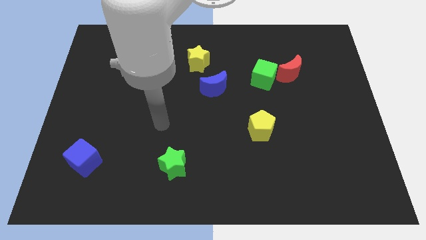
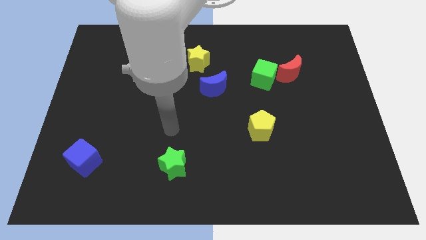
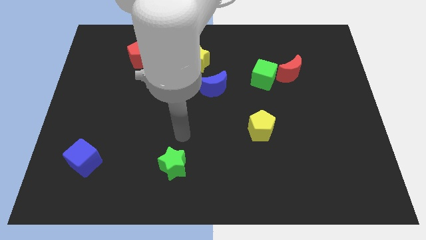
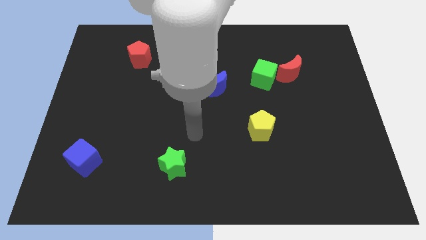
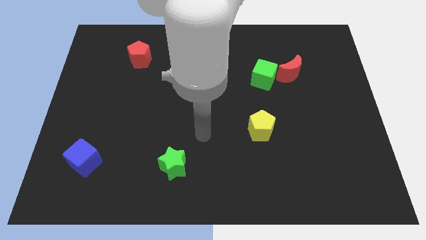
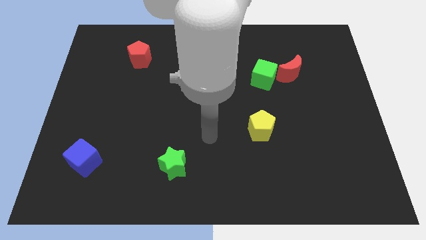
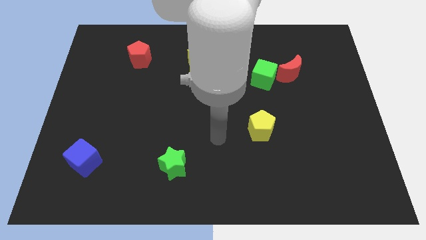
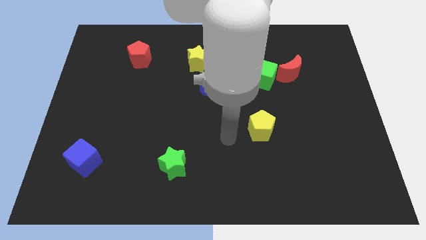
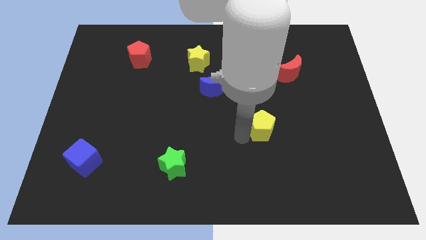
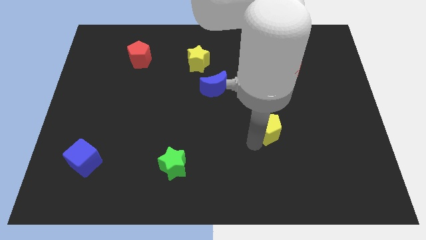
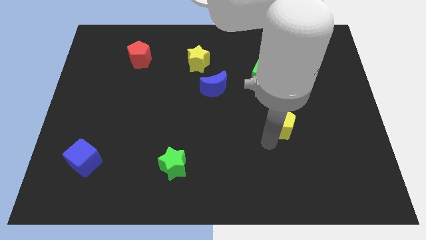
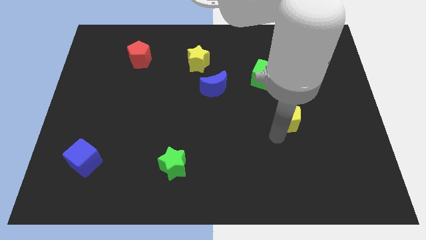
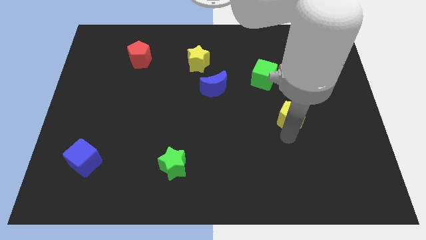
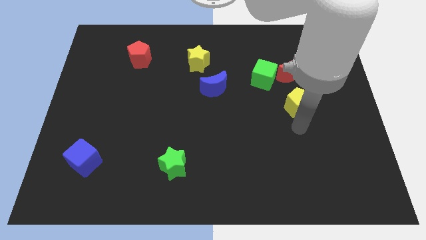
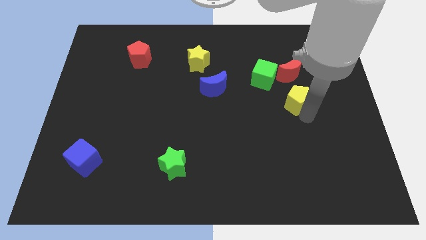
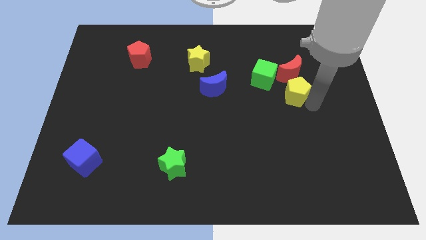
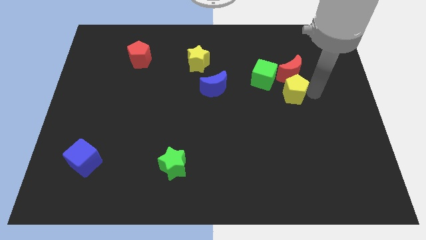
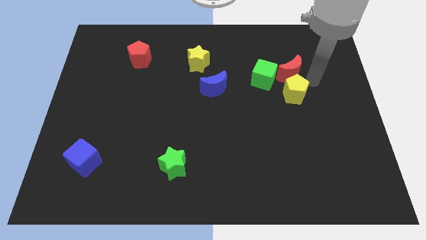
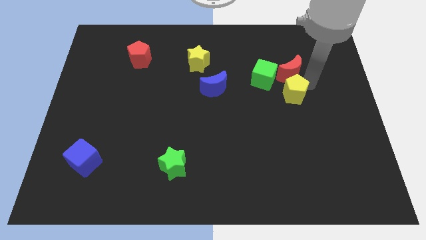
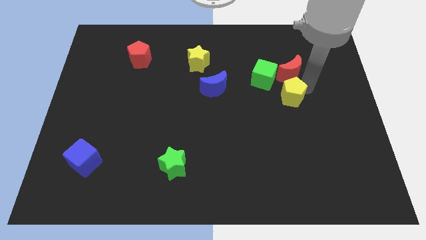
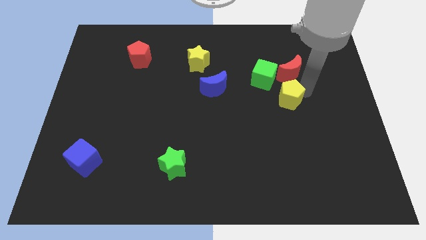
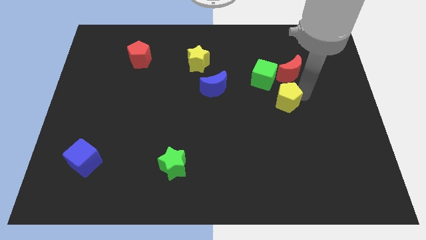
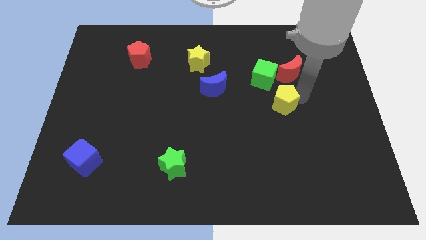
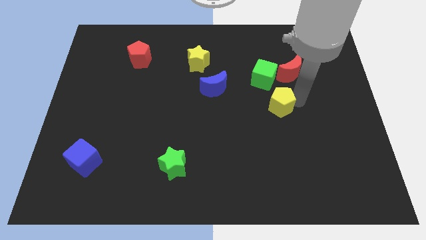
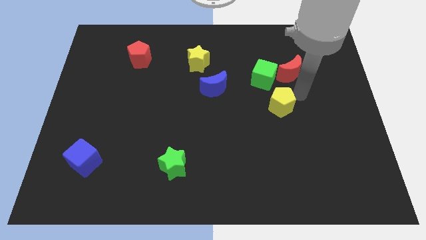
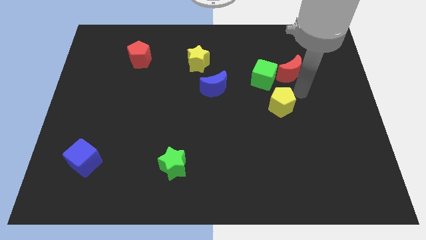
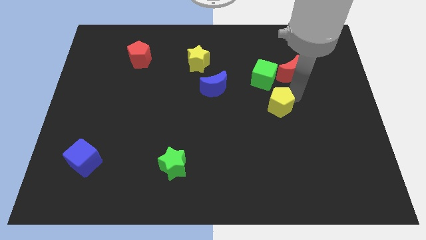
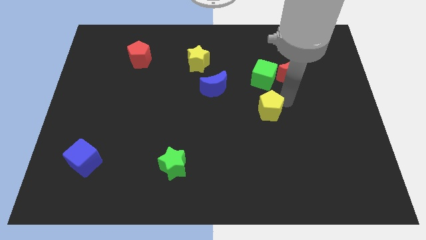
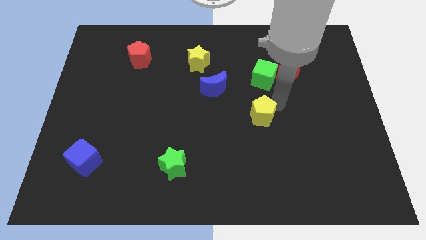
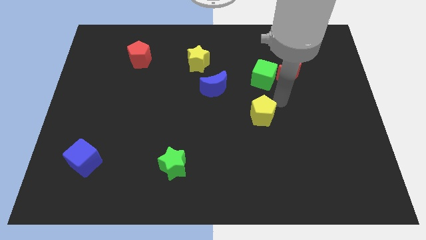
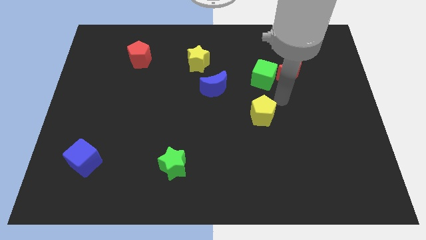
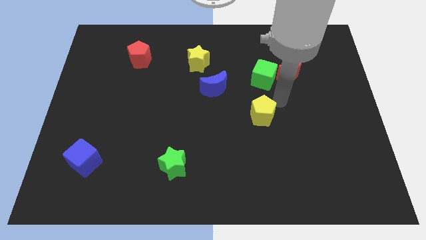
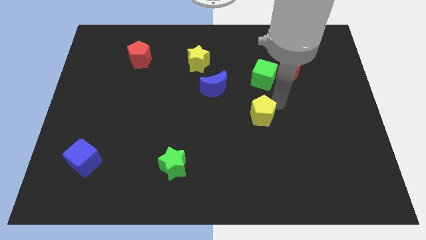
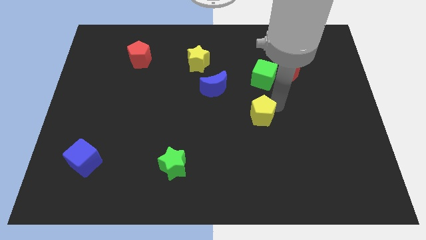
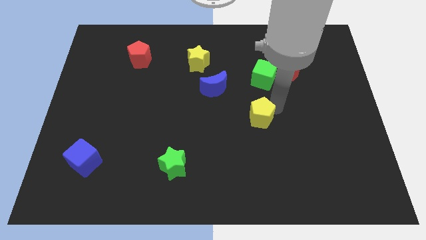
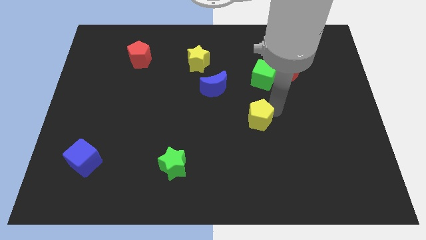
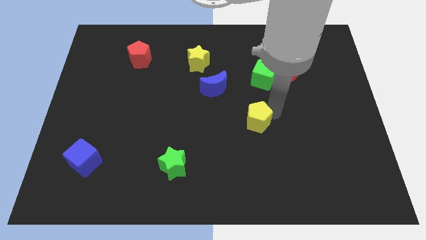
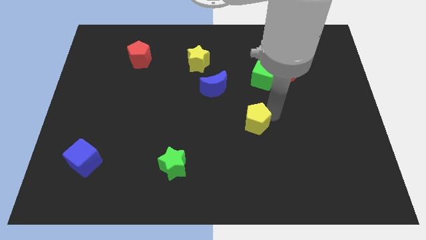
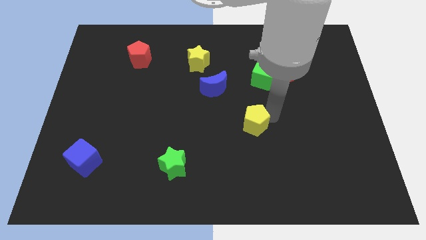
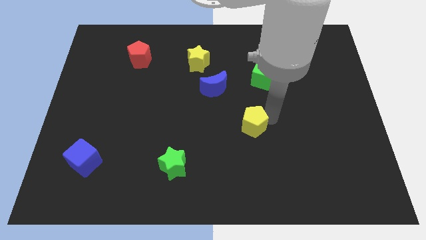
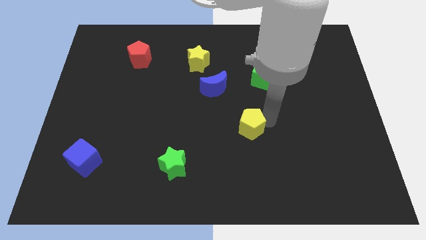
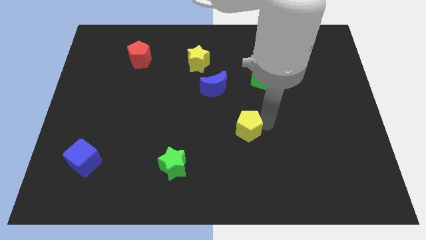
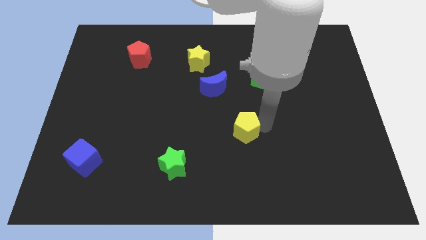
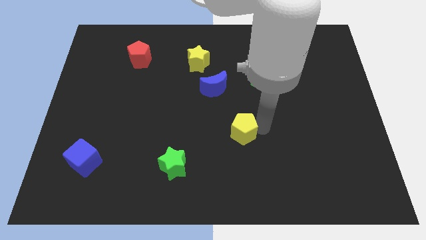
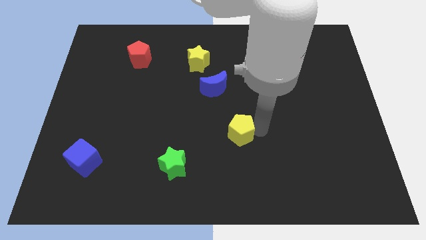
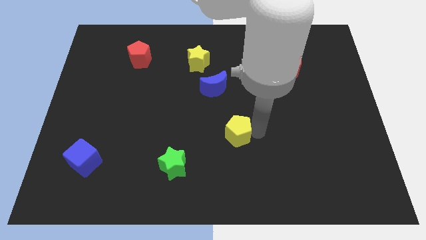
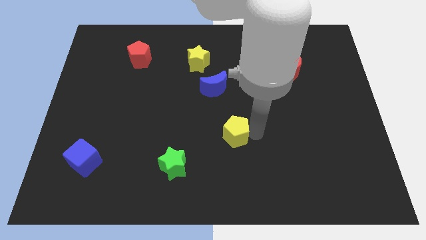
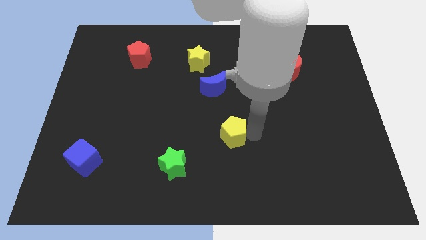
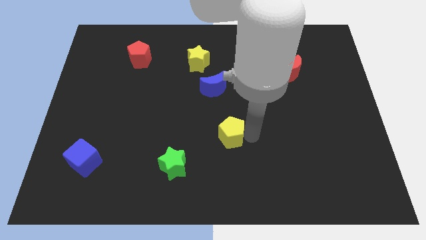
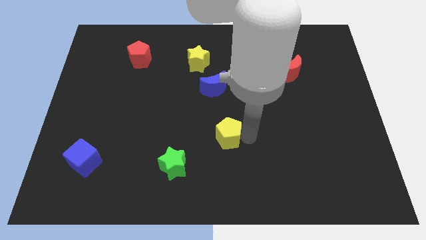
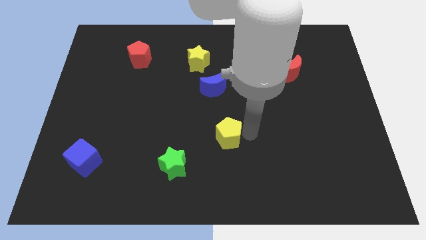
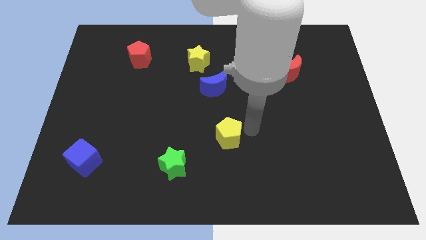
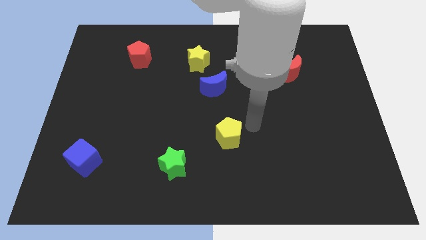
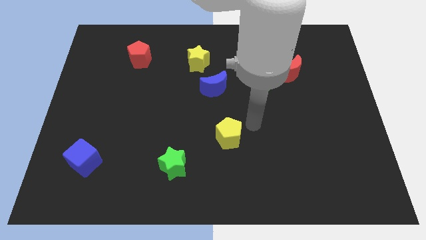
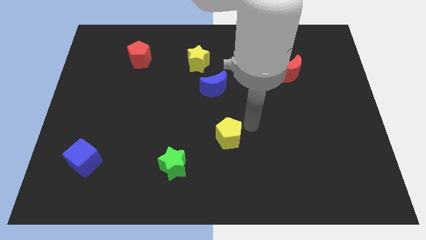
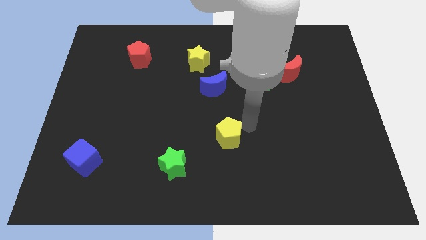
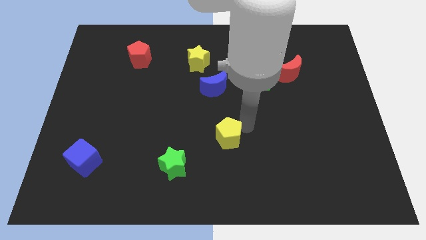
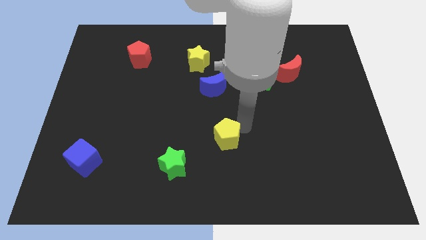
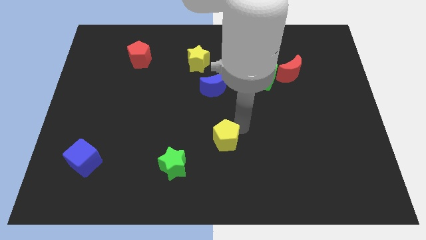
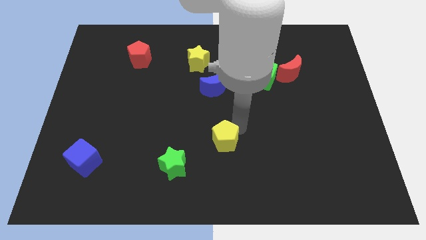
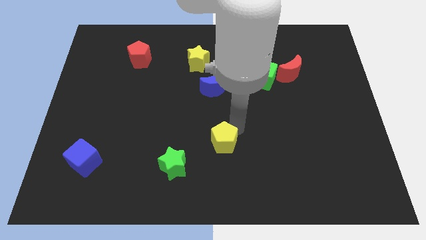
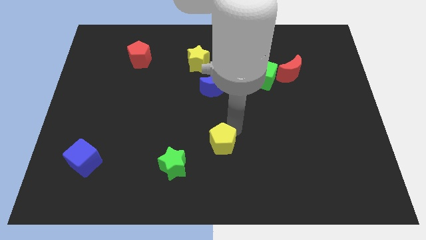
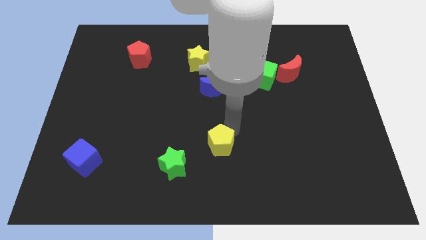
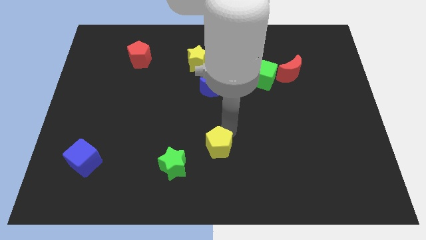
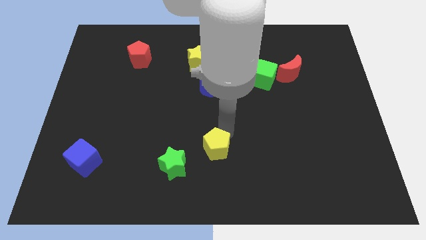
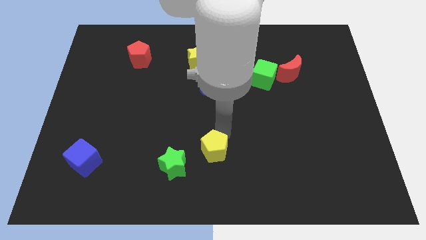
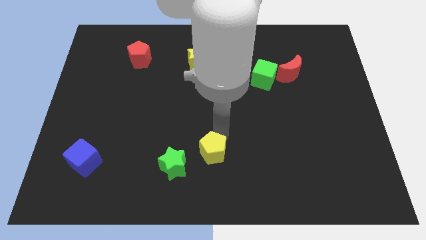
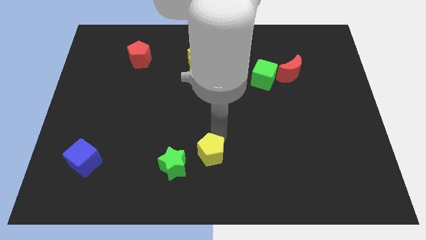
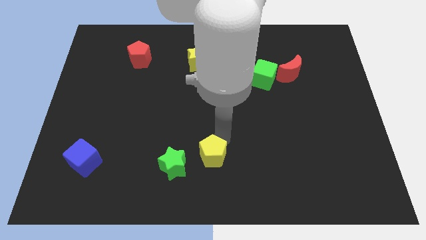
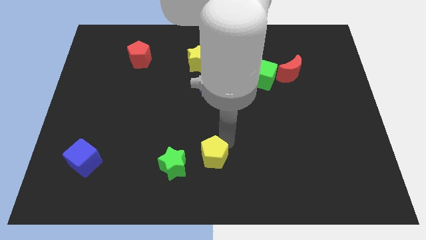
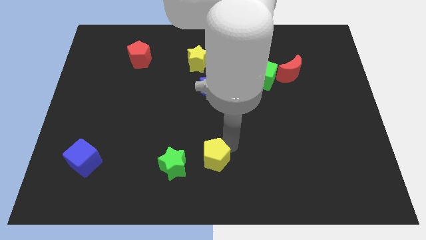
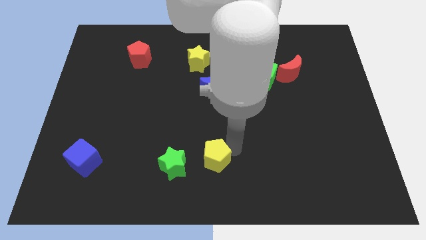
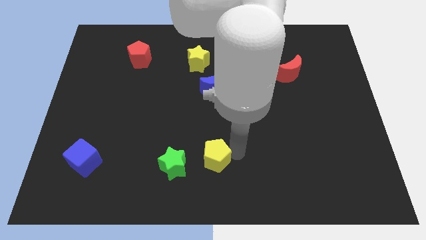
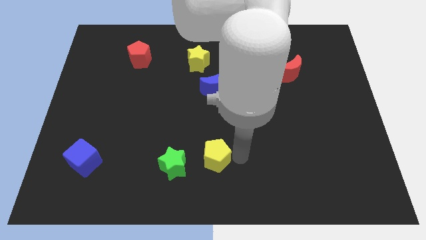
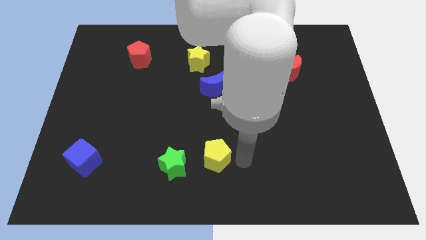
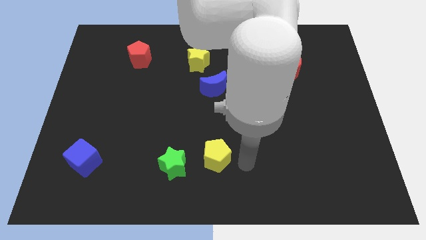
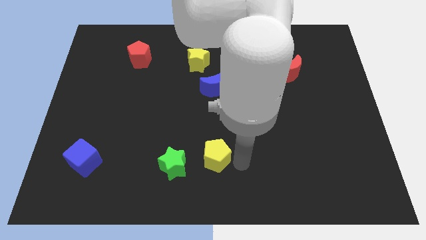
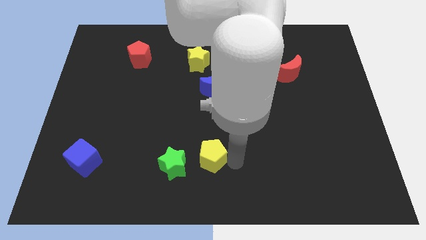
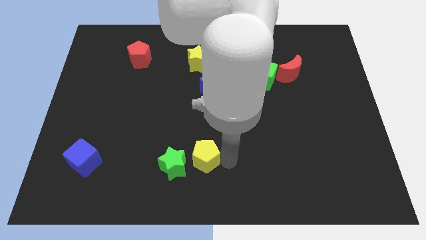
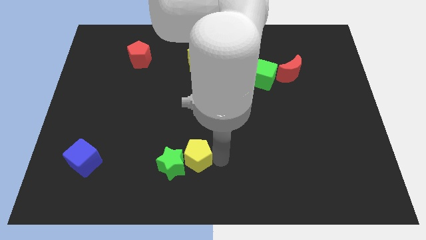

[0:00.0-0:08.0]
put the yellow pentagon next to the green star

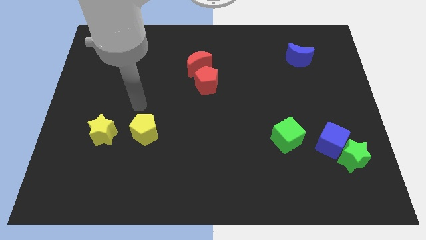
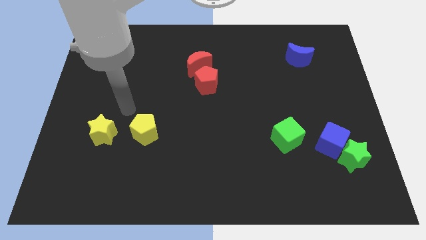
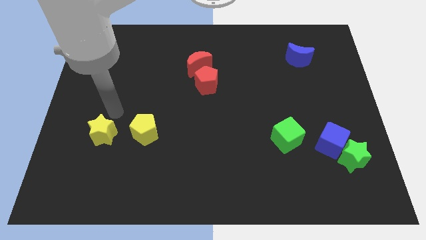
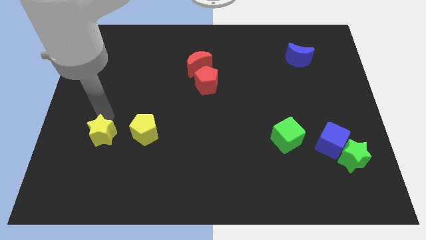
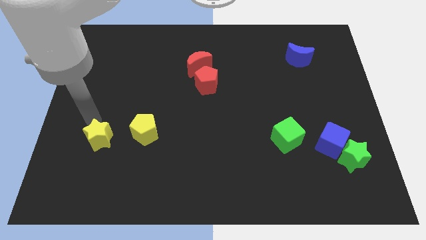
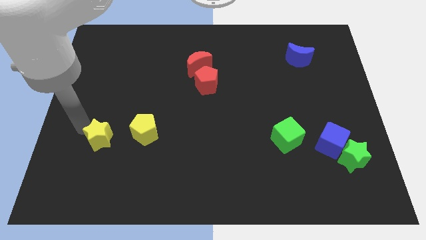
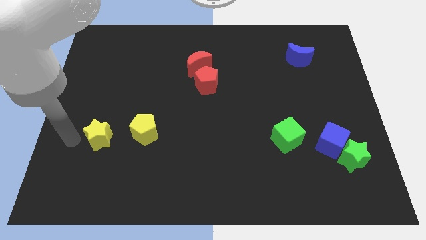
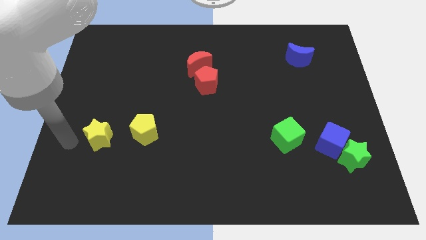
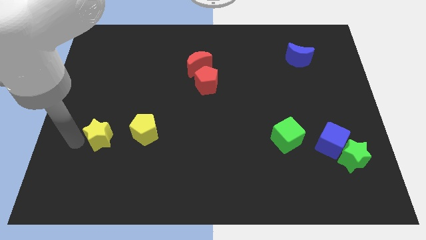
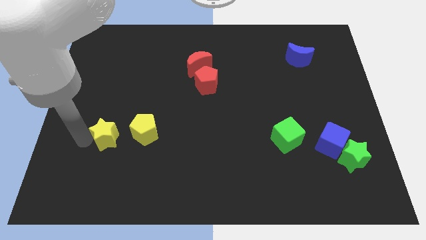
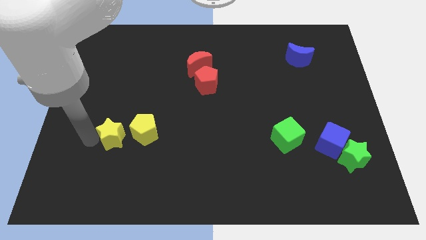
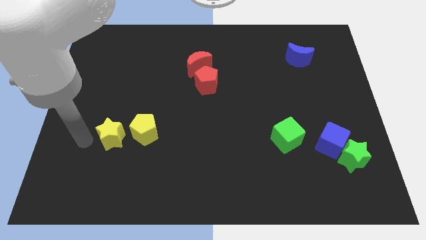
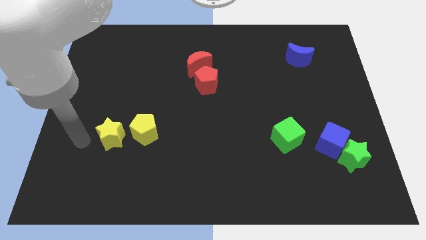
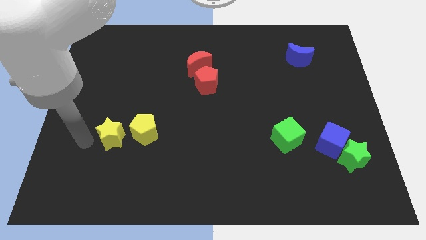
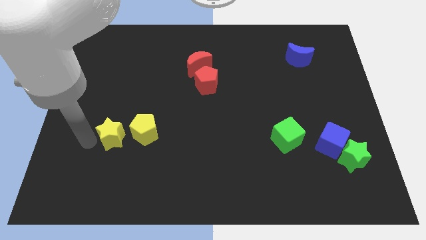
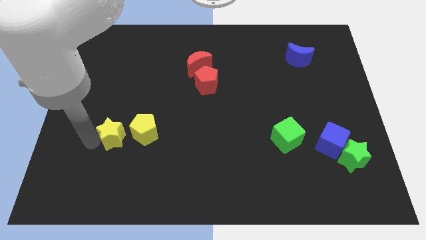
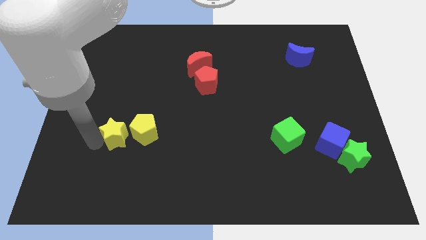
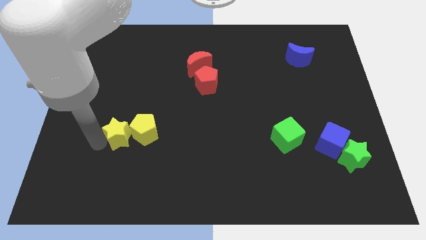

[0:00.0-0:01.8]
slide the yellow star next to the yellow pentagon
